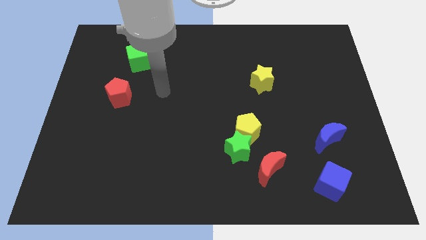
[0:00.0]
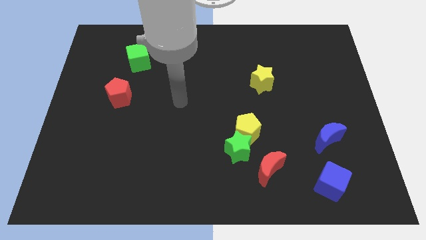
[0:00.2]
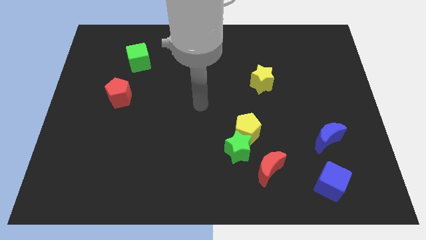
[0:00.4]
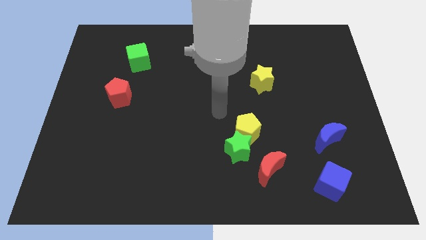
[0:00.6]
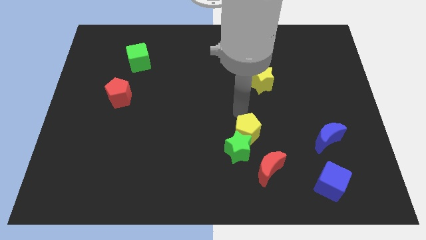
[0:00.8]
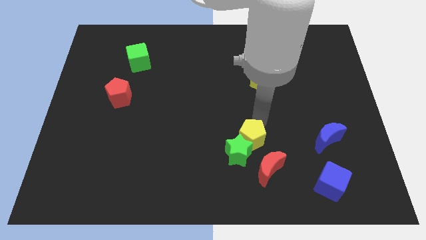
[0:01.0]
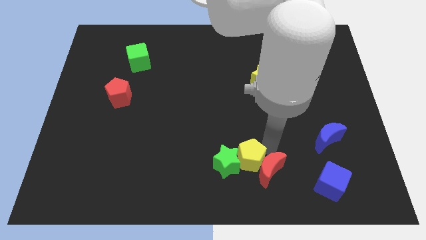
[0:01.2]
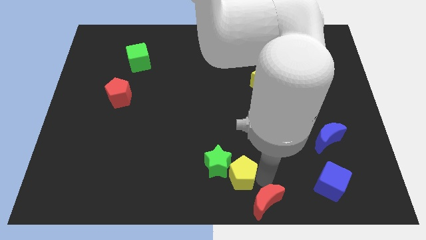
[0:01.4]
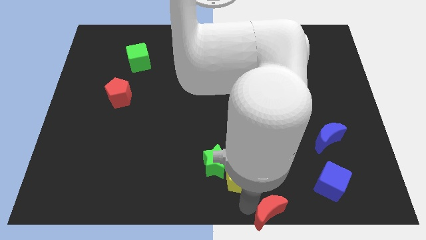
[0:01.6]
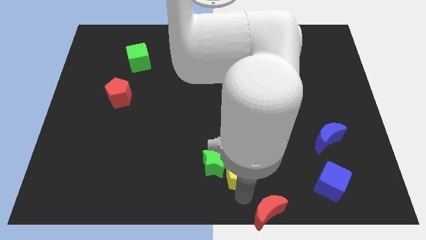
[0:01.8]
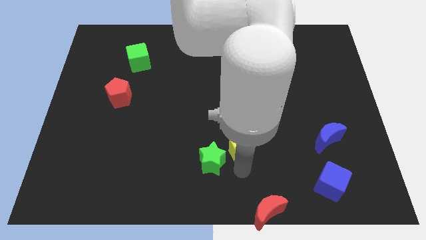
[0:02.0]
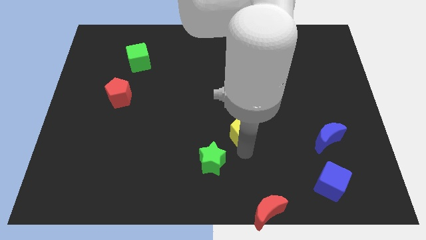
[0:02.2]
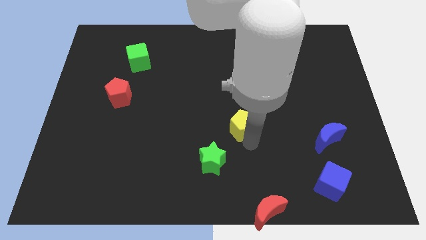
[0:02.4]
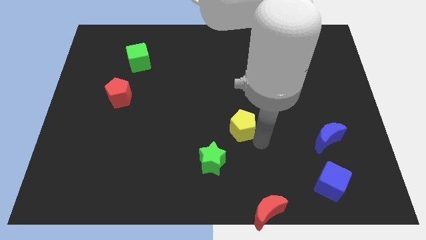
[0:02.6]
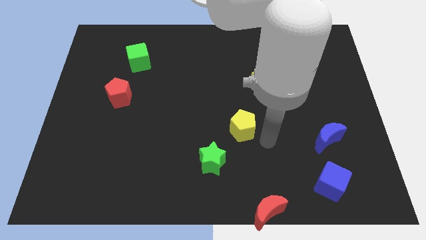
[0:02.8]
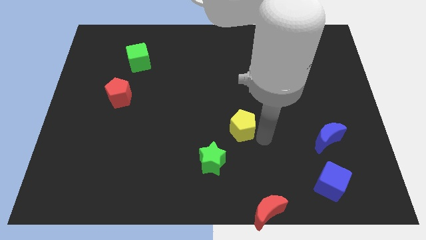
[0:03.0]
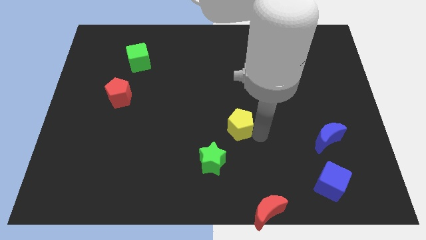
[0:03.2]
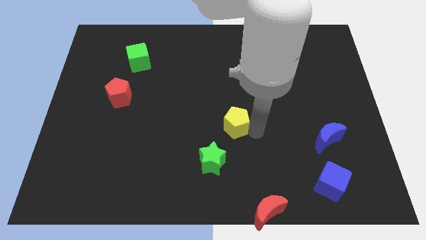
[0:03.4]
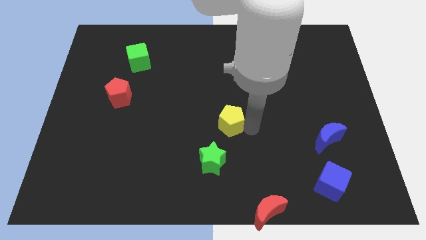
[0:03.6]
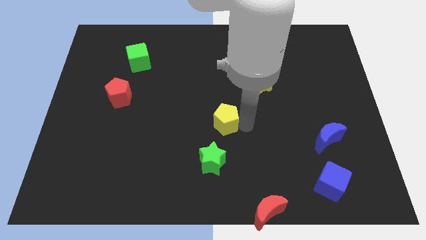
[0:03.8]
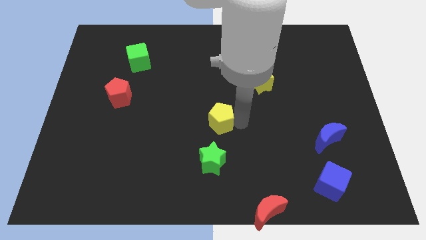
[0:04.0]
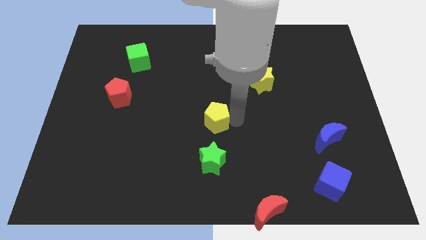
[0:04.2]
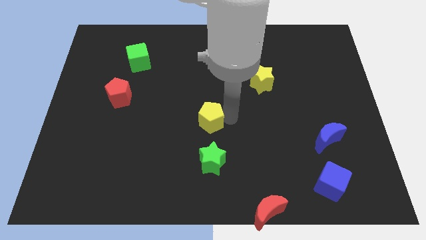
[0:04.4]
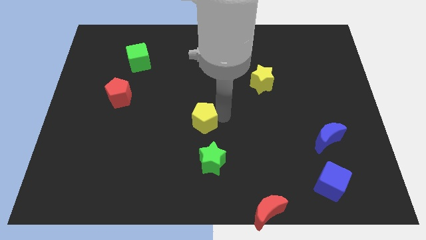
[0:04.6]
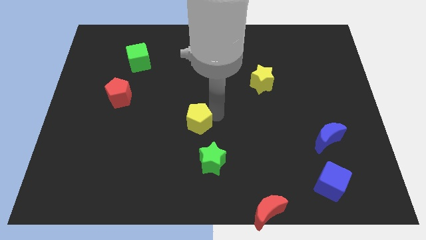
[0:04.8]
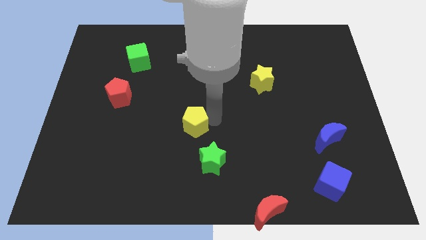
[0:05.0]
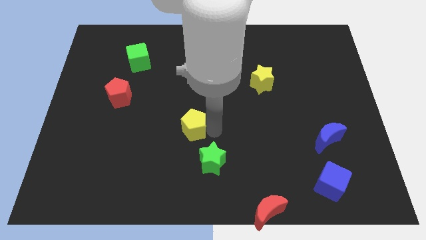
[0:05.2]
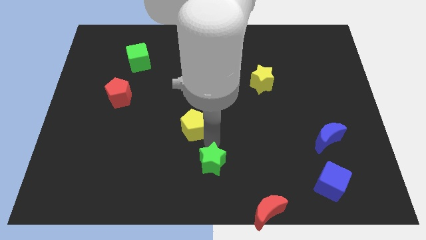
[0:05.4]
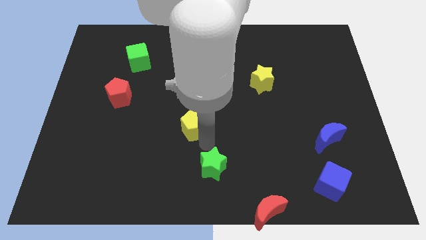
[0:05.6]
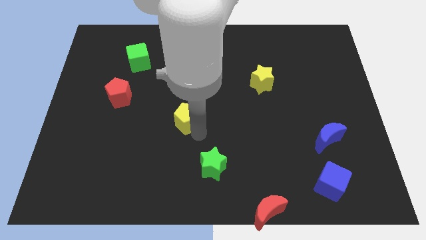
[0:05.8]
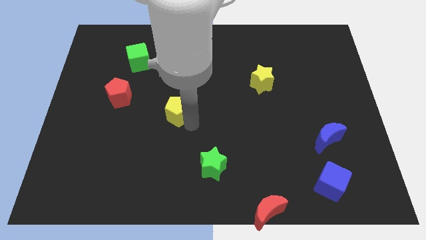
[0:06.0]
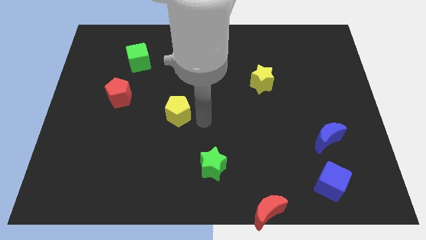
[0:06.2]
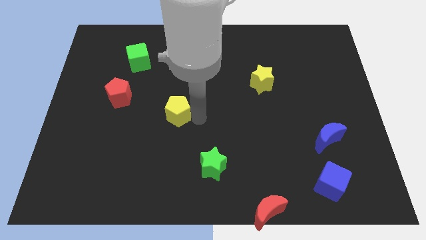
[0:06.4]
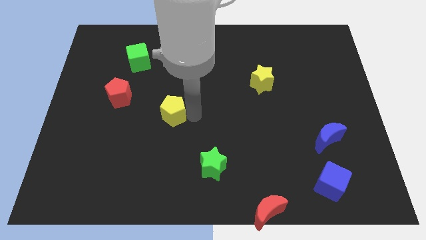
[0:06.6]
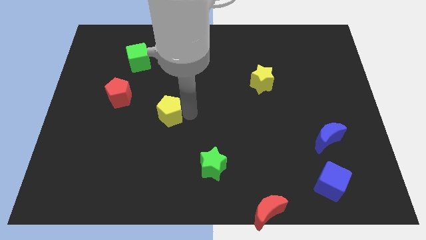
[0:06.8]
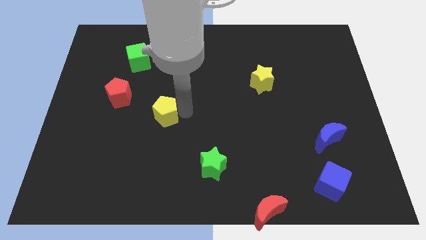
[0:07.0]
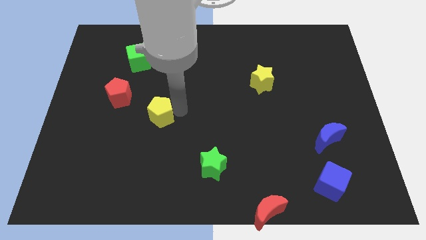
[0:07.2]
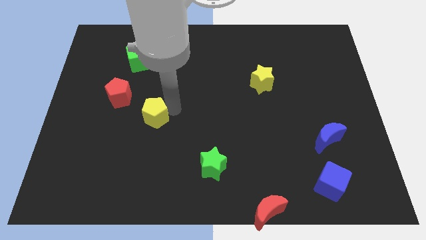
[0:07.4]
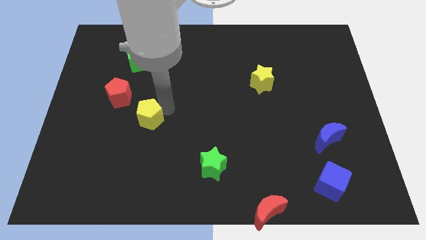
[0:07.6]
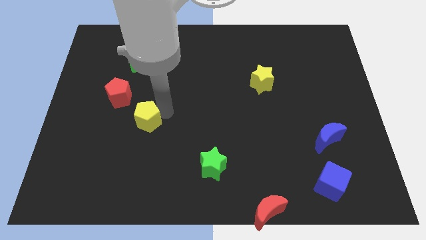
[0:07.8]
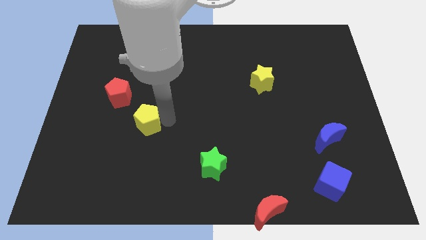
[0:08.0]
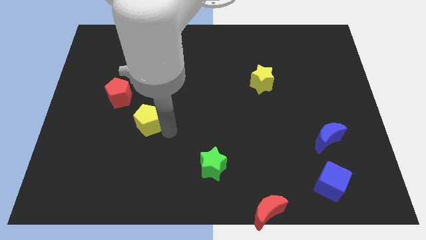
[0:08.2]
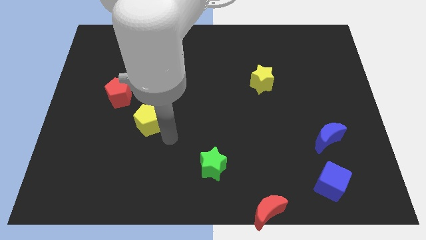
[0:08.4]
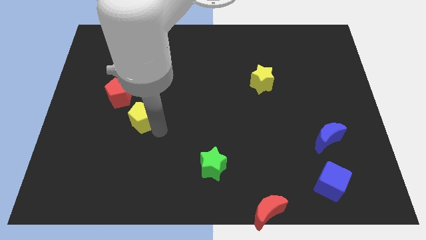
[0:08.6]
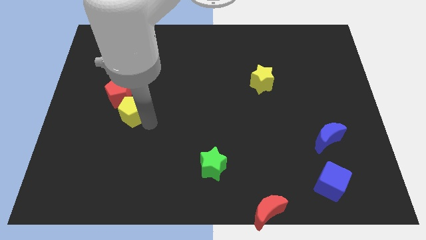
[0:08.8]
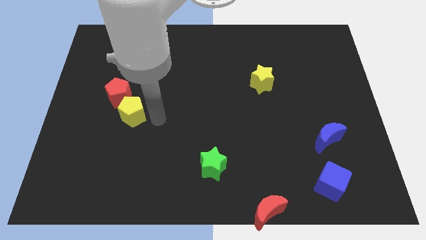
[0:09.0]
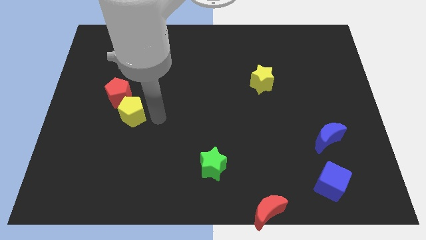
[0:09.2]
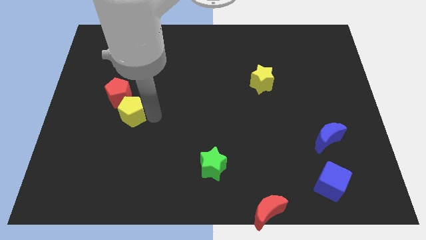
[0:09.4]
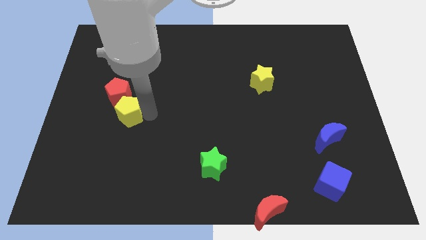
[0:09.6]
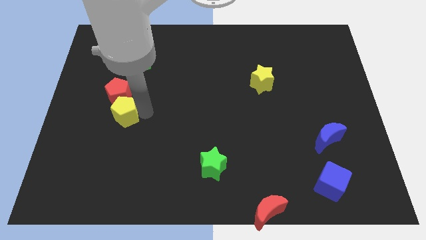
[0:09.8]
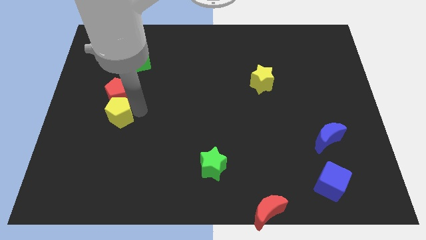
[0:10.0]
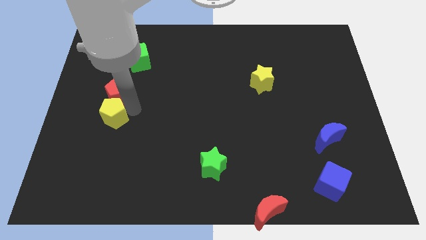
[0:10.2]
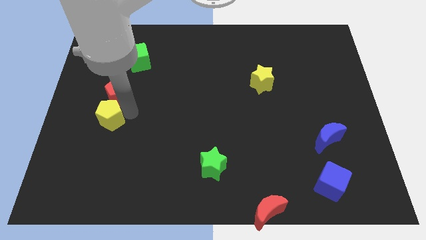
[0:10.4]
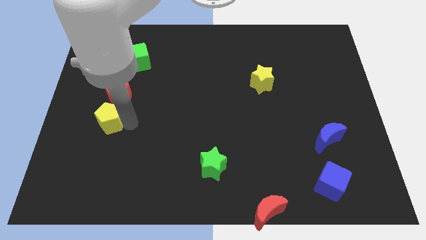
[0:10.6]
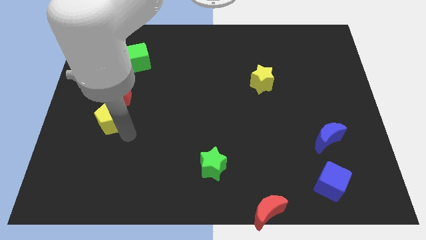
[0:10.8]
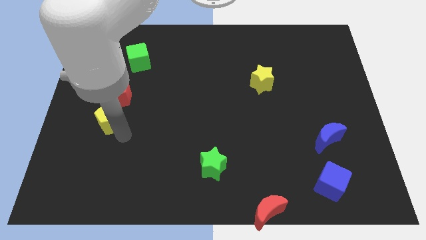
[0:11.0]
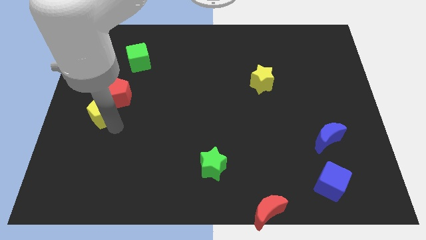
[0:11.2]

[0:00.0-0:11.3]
slide the yellow pentagon to the left side
